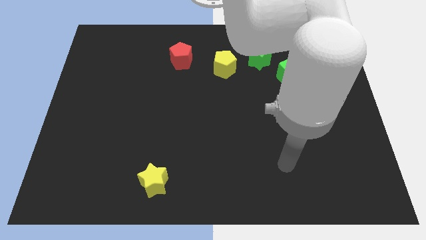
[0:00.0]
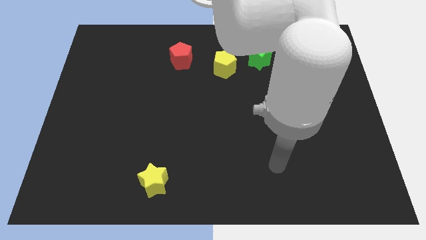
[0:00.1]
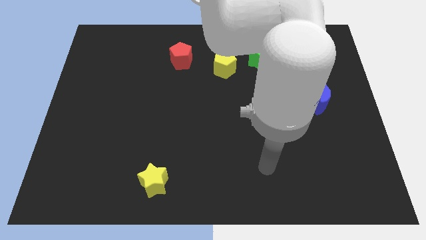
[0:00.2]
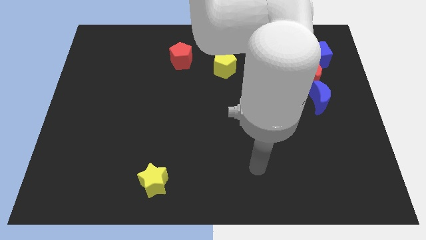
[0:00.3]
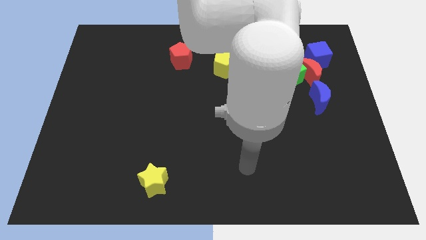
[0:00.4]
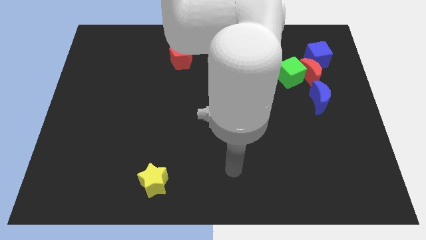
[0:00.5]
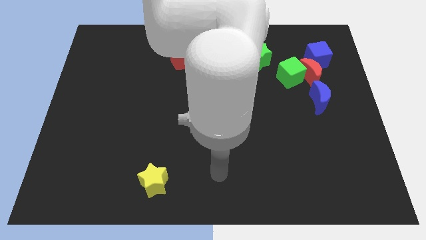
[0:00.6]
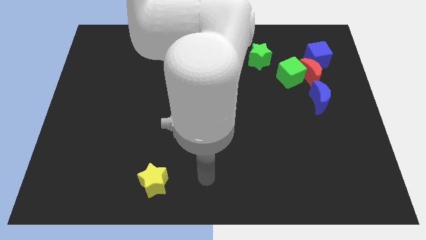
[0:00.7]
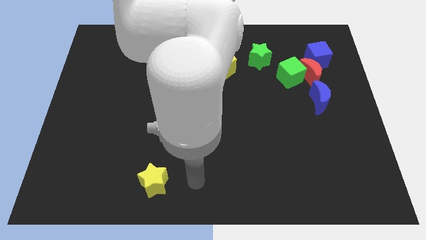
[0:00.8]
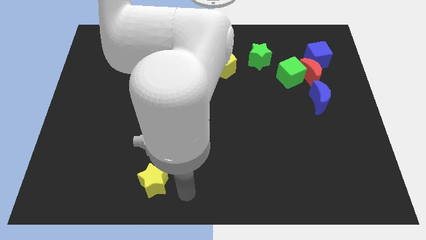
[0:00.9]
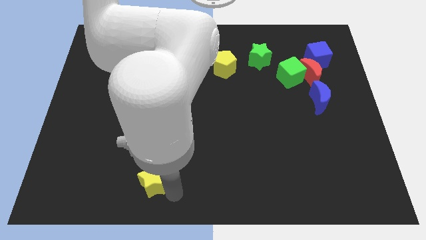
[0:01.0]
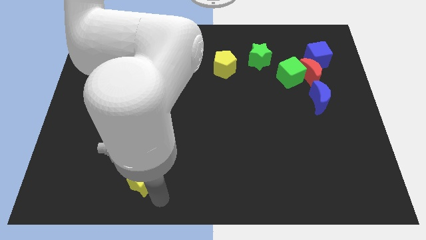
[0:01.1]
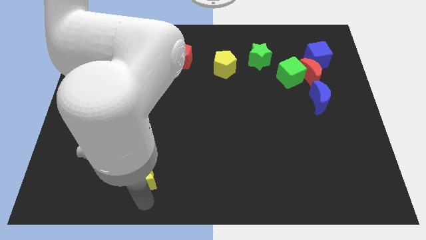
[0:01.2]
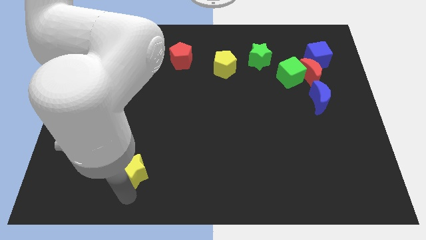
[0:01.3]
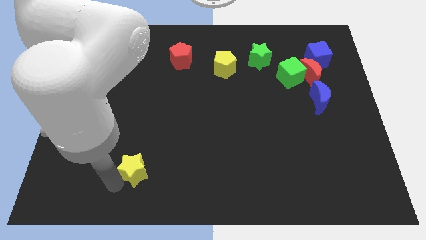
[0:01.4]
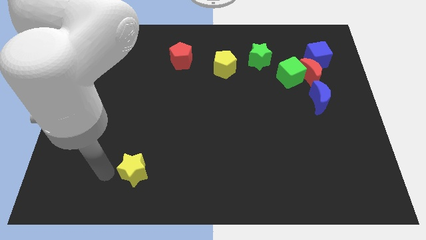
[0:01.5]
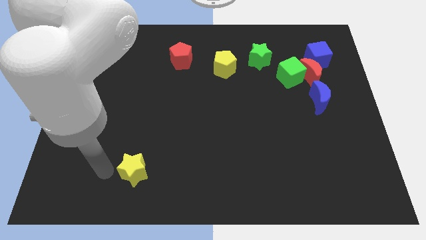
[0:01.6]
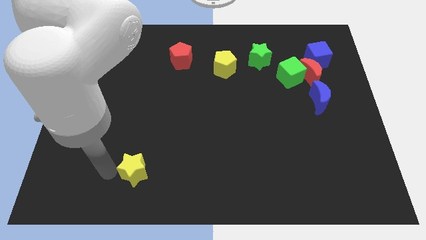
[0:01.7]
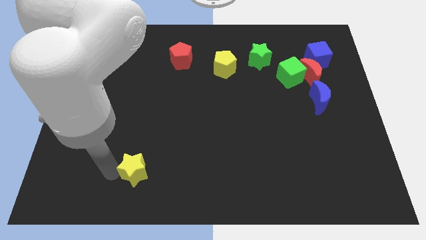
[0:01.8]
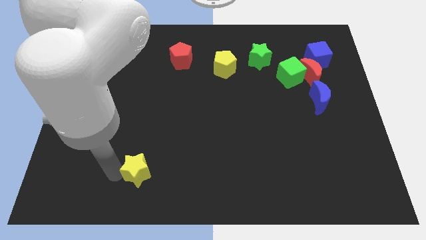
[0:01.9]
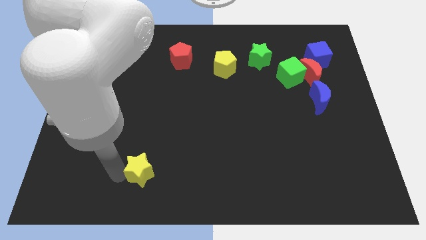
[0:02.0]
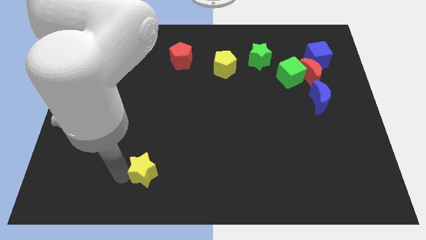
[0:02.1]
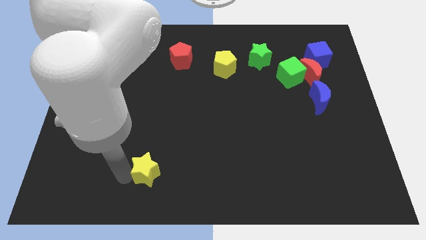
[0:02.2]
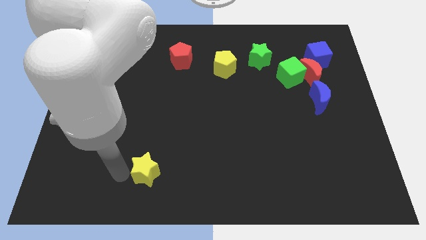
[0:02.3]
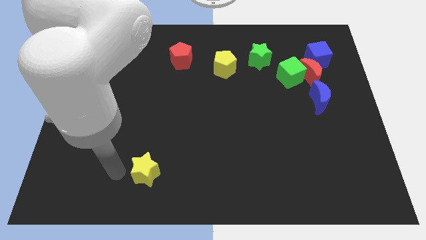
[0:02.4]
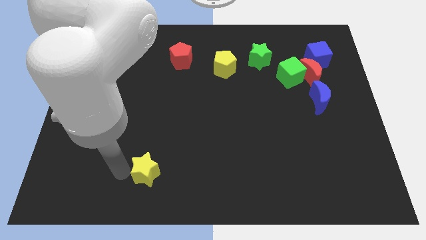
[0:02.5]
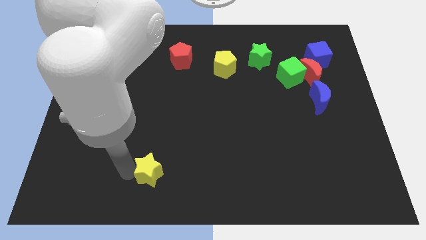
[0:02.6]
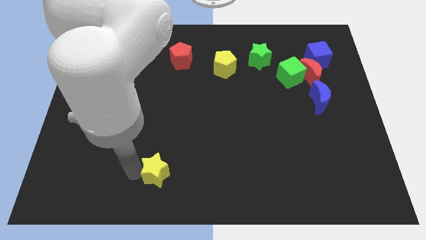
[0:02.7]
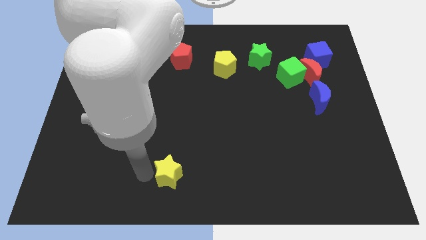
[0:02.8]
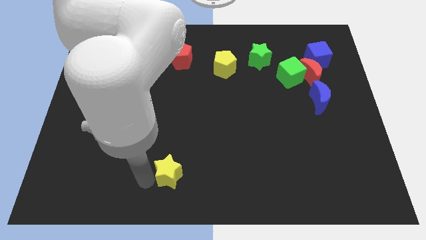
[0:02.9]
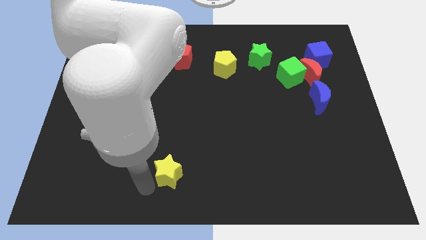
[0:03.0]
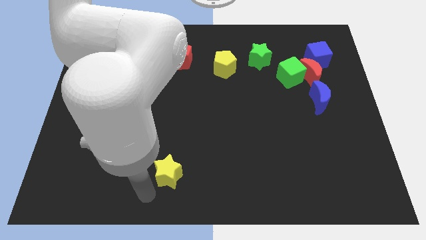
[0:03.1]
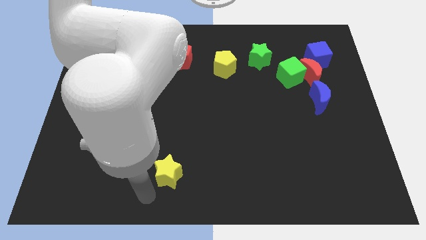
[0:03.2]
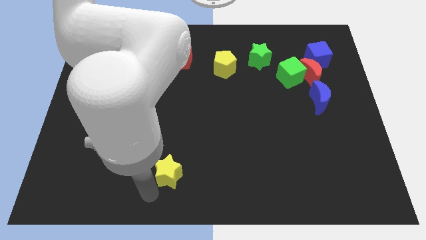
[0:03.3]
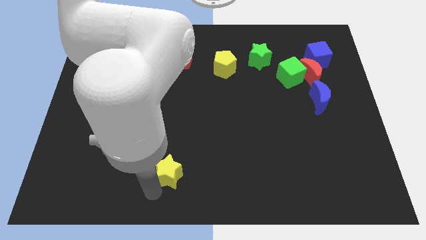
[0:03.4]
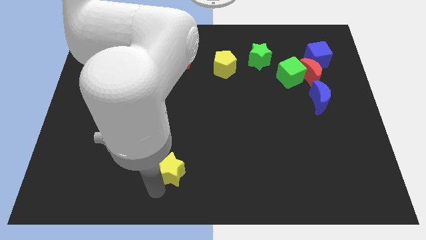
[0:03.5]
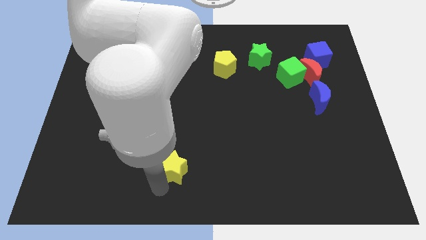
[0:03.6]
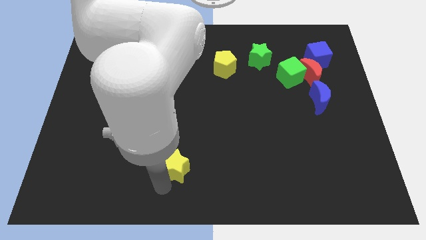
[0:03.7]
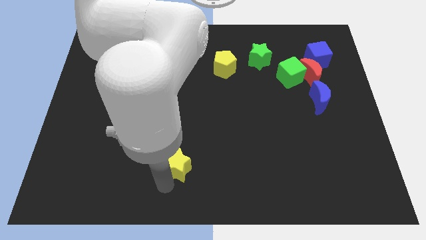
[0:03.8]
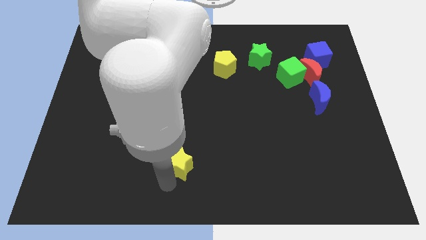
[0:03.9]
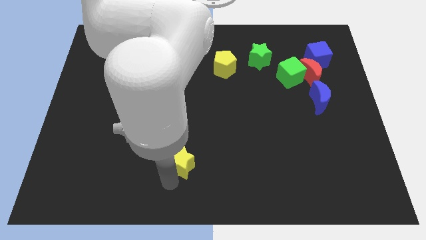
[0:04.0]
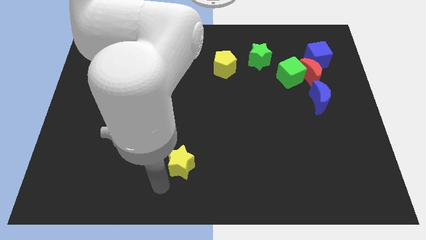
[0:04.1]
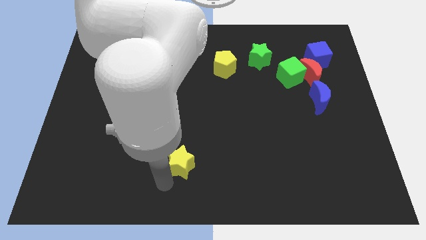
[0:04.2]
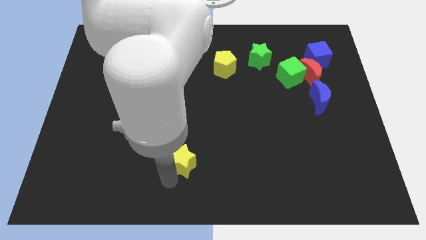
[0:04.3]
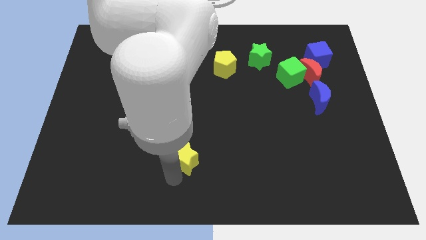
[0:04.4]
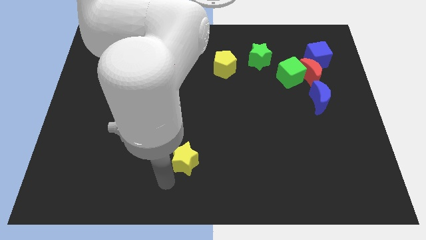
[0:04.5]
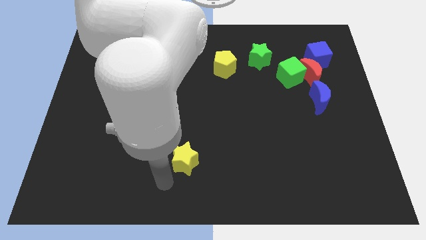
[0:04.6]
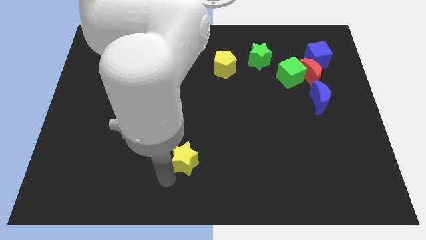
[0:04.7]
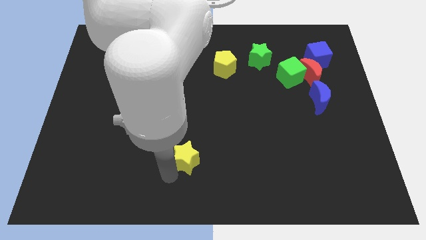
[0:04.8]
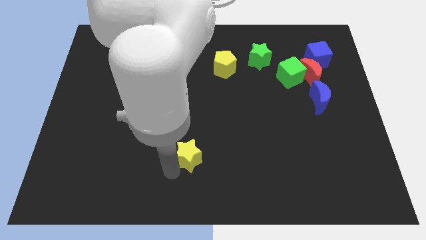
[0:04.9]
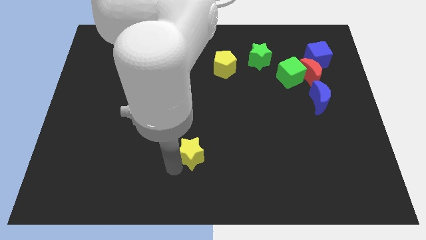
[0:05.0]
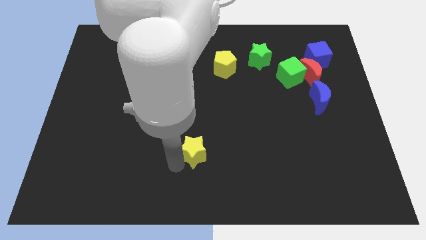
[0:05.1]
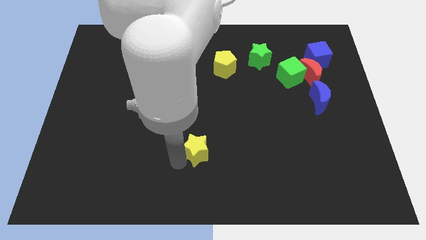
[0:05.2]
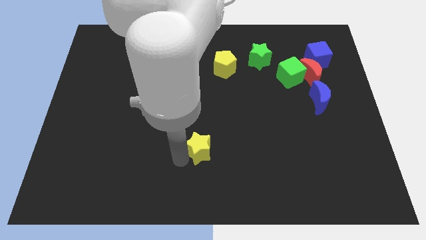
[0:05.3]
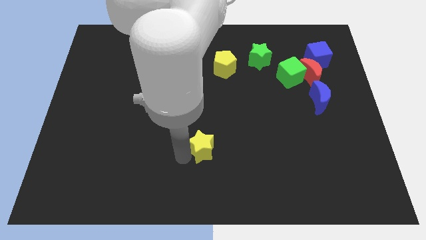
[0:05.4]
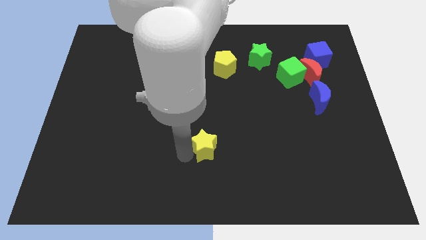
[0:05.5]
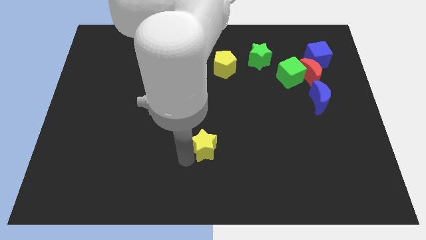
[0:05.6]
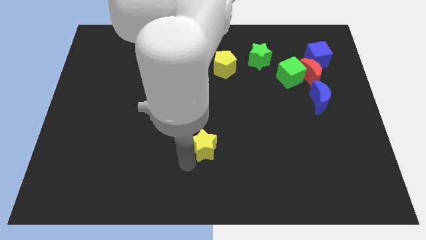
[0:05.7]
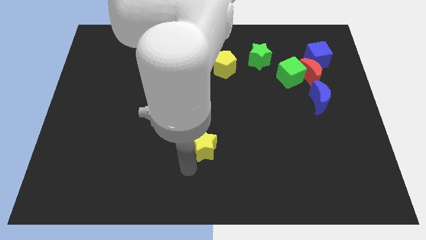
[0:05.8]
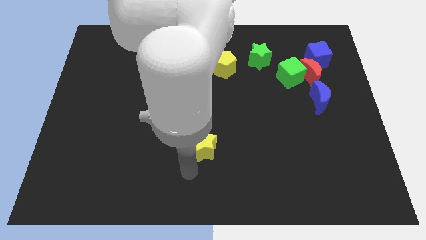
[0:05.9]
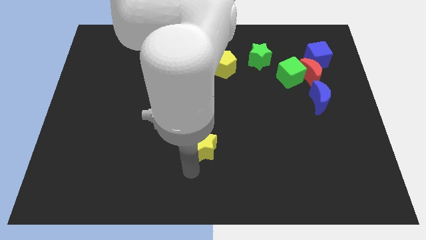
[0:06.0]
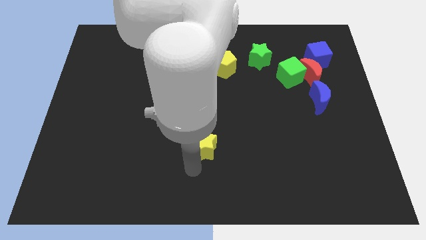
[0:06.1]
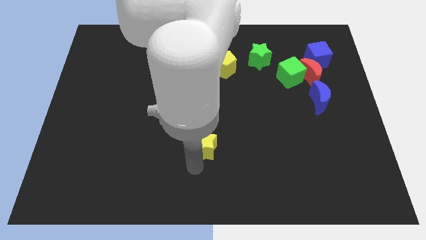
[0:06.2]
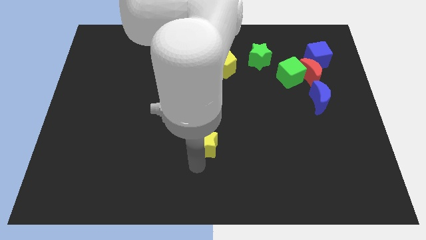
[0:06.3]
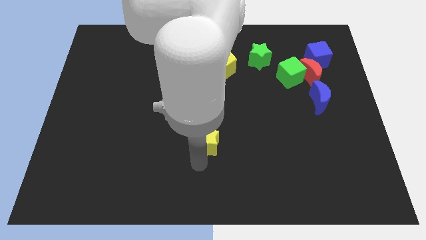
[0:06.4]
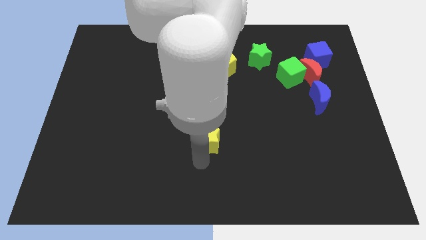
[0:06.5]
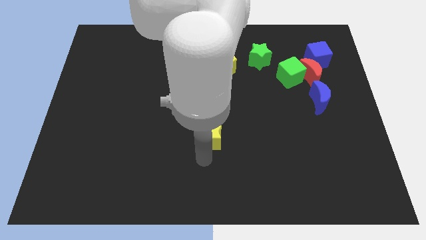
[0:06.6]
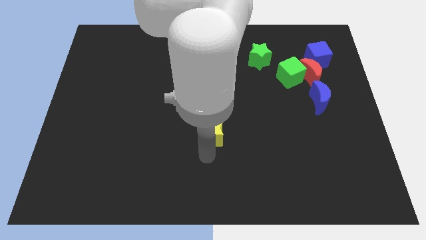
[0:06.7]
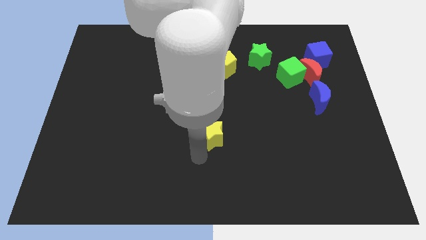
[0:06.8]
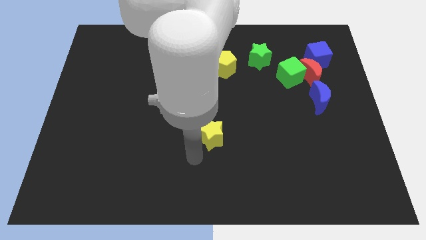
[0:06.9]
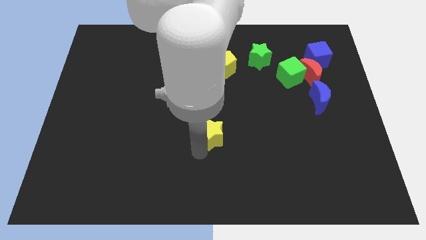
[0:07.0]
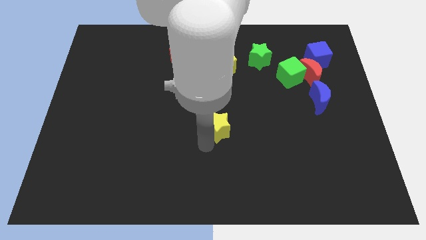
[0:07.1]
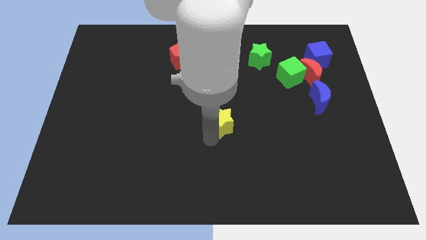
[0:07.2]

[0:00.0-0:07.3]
push the yellow star diagonally upwards and right

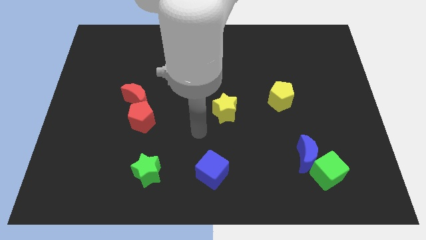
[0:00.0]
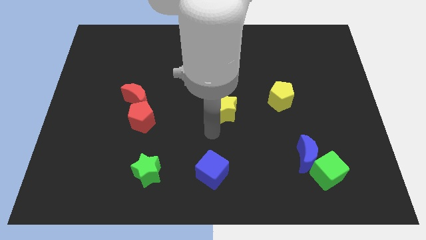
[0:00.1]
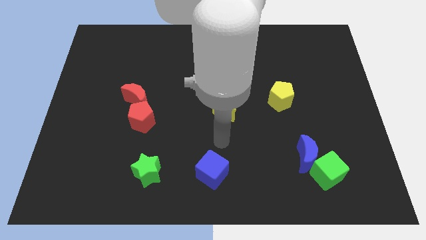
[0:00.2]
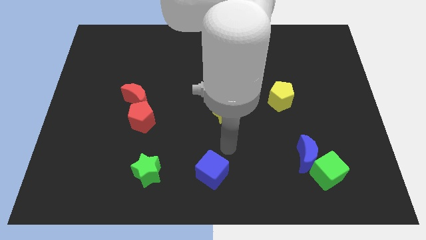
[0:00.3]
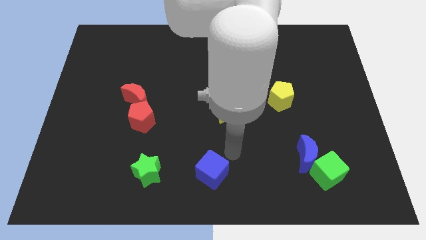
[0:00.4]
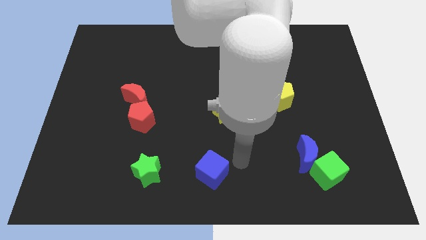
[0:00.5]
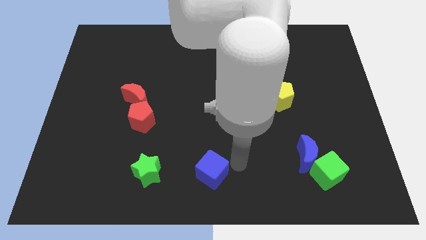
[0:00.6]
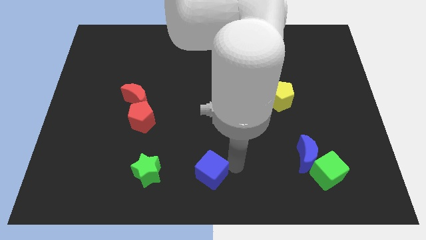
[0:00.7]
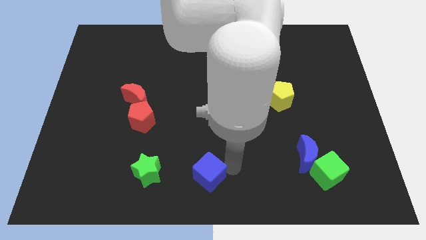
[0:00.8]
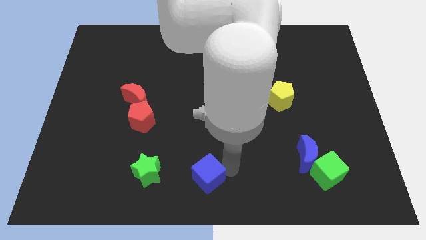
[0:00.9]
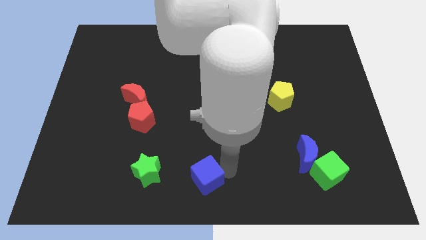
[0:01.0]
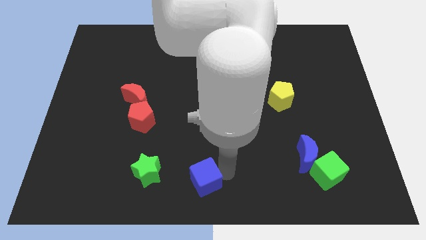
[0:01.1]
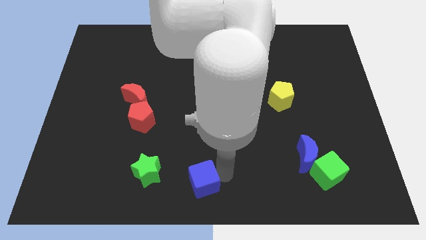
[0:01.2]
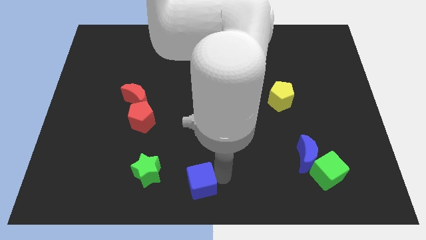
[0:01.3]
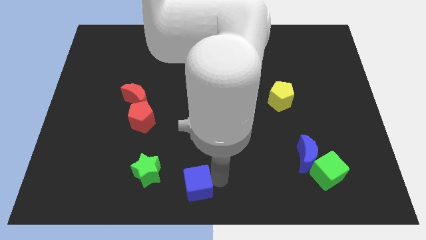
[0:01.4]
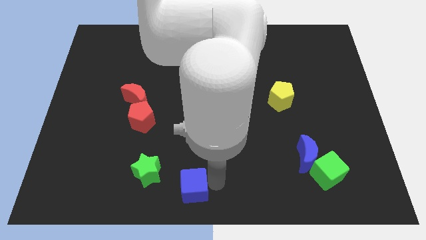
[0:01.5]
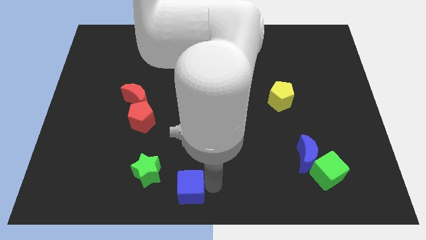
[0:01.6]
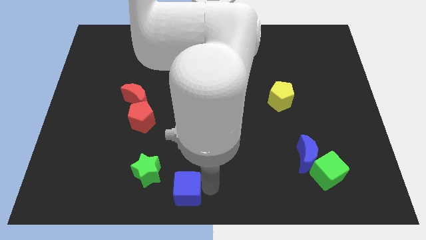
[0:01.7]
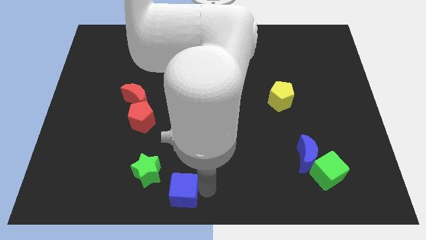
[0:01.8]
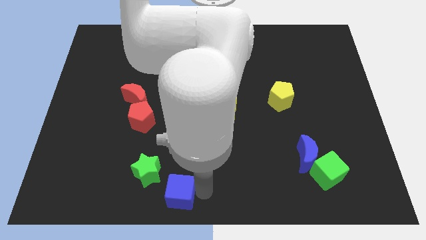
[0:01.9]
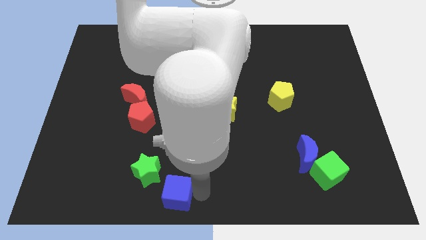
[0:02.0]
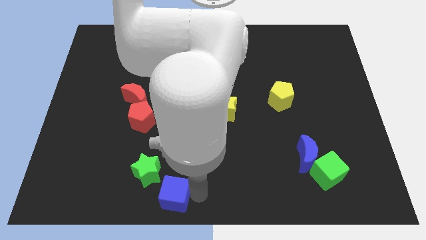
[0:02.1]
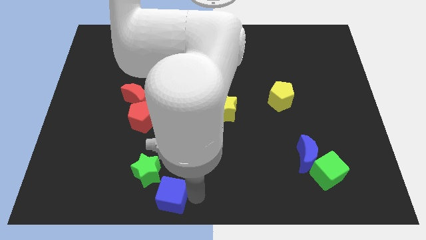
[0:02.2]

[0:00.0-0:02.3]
slide the blue cube a little bit left
